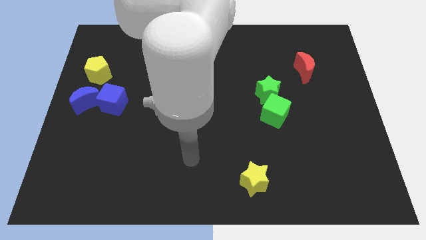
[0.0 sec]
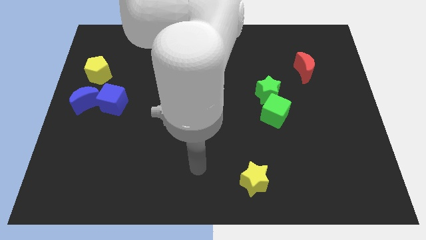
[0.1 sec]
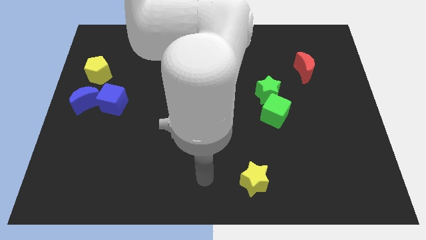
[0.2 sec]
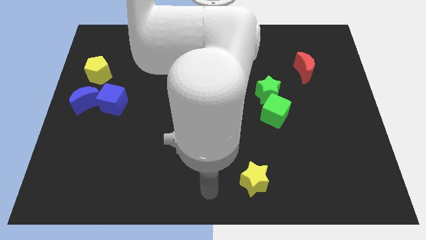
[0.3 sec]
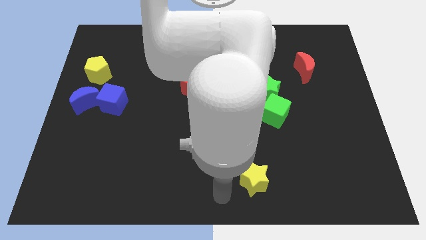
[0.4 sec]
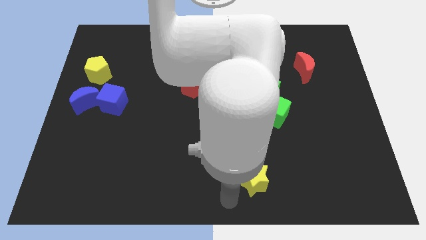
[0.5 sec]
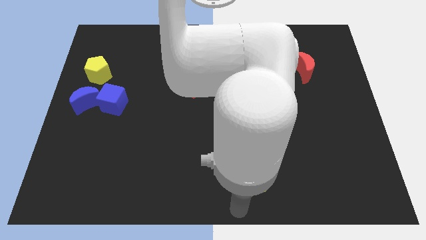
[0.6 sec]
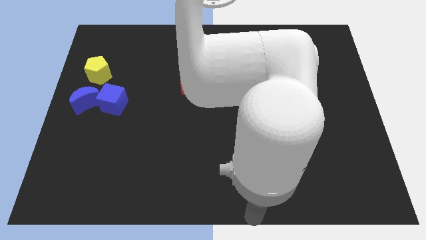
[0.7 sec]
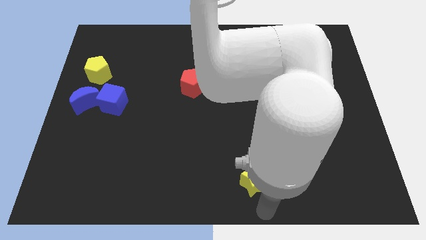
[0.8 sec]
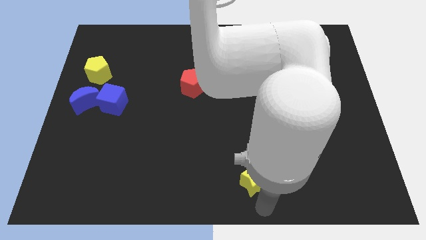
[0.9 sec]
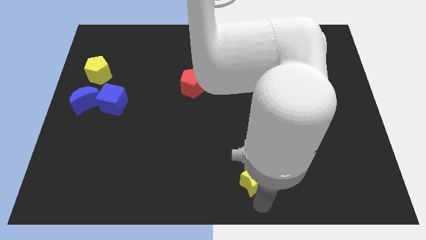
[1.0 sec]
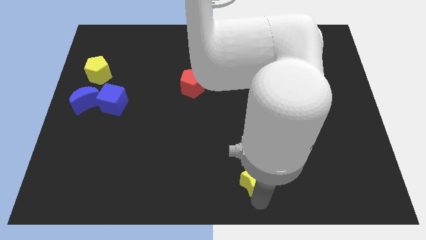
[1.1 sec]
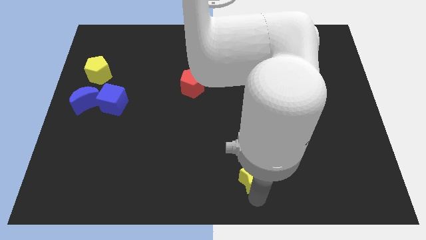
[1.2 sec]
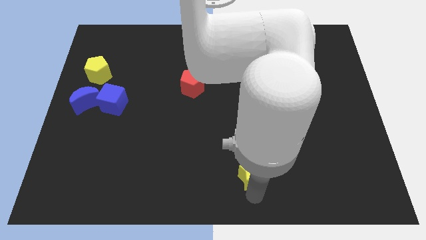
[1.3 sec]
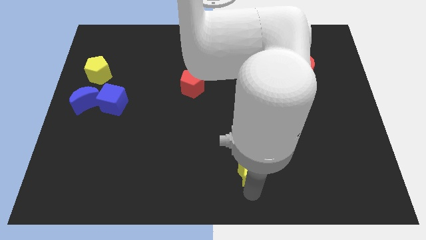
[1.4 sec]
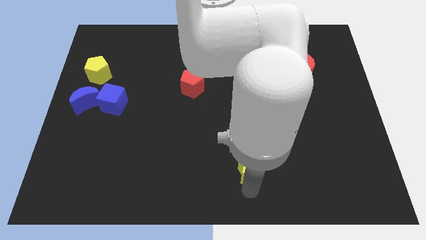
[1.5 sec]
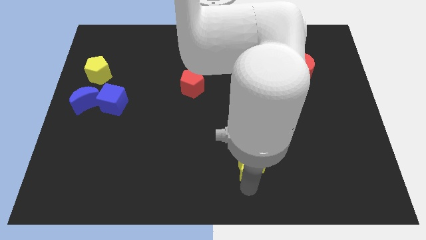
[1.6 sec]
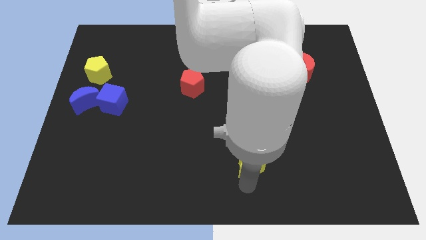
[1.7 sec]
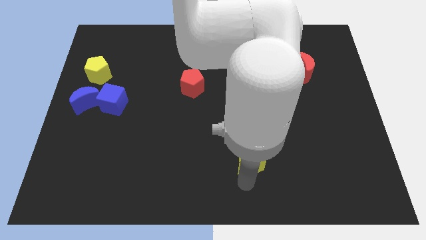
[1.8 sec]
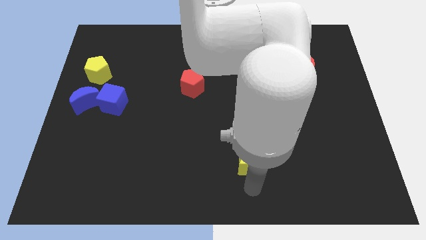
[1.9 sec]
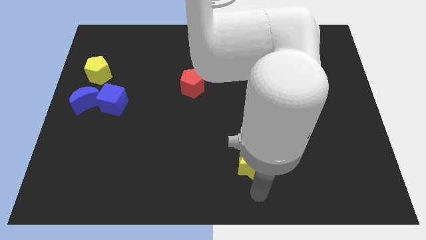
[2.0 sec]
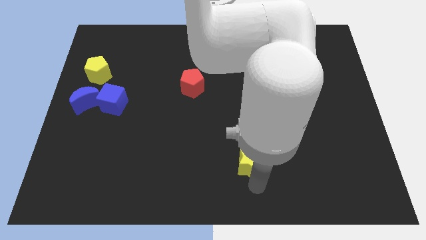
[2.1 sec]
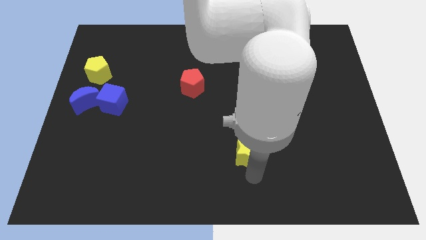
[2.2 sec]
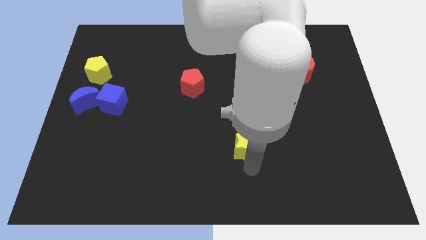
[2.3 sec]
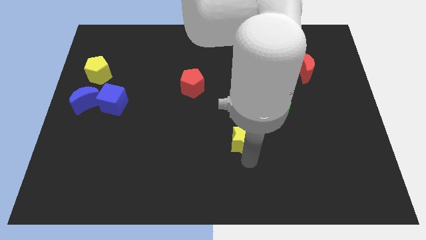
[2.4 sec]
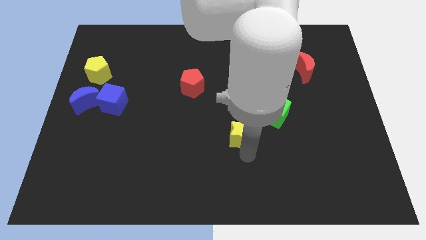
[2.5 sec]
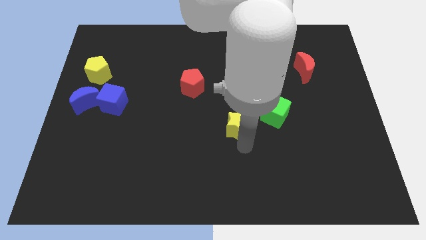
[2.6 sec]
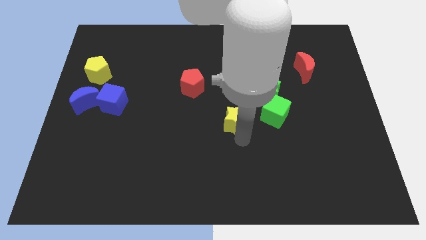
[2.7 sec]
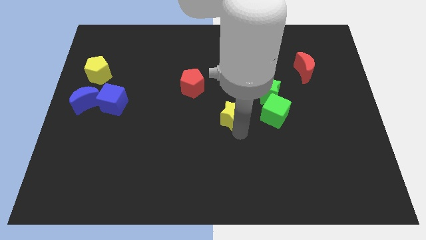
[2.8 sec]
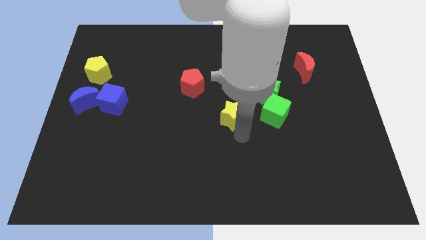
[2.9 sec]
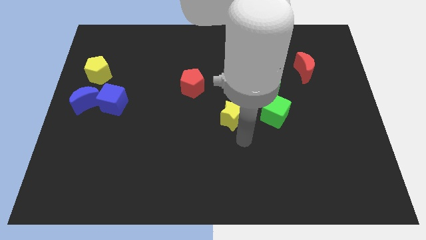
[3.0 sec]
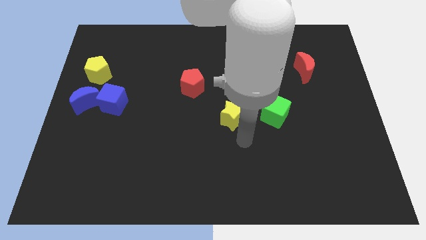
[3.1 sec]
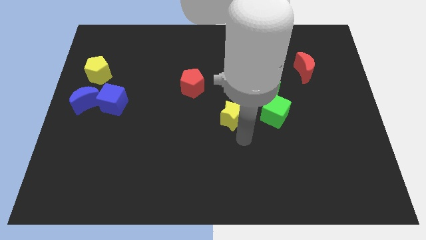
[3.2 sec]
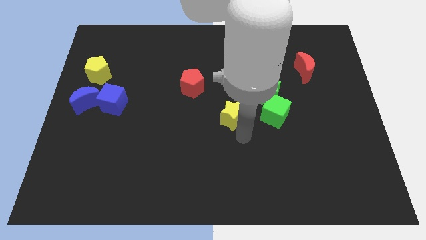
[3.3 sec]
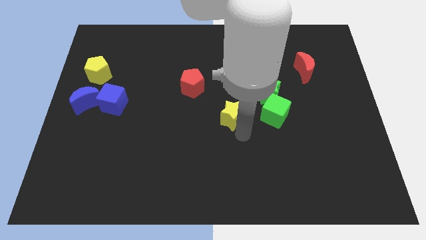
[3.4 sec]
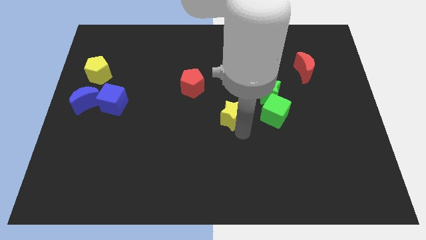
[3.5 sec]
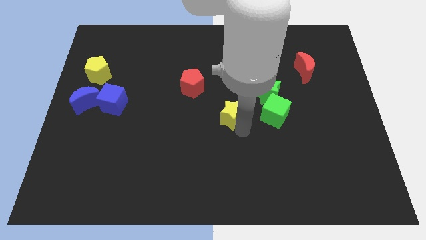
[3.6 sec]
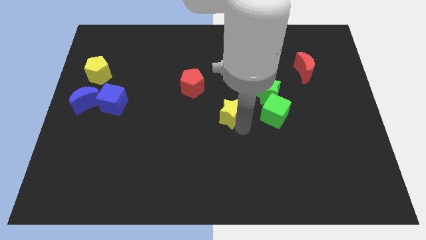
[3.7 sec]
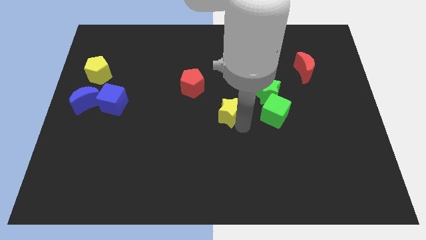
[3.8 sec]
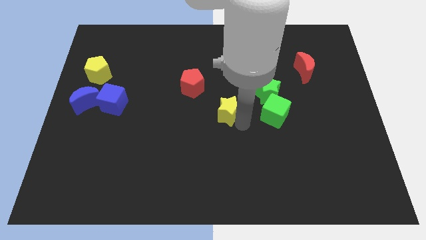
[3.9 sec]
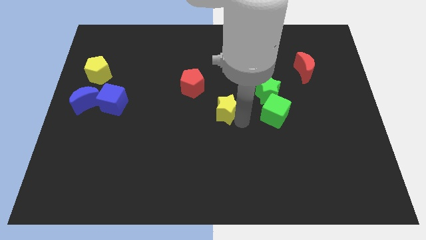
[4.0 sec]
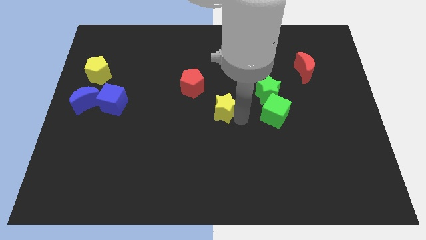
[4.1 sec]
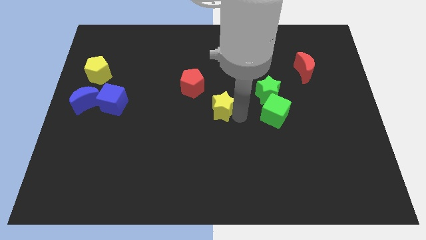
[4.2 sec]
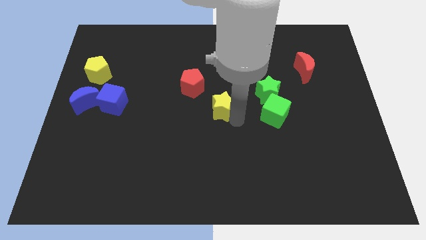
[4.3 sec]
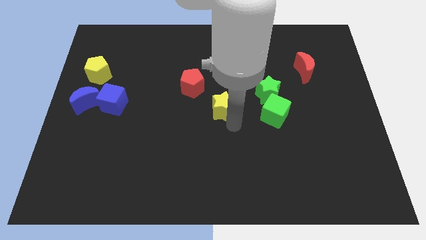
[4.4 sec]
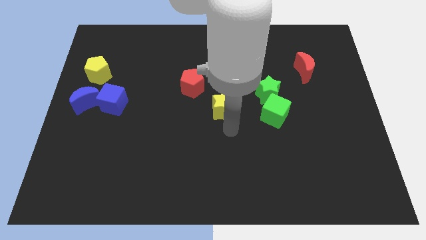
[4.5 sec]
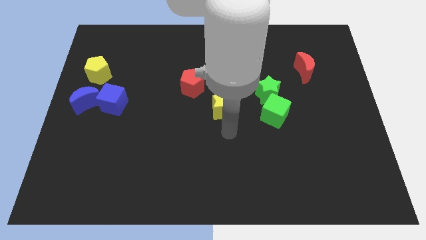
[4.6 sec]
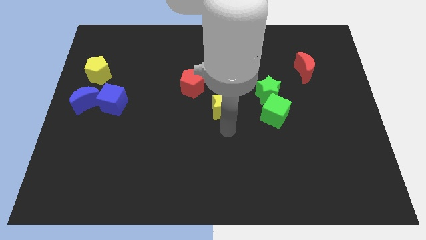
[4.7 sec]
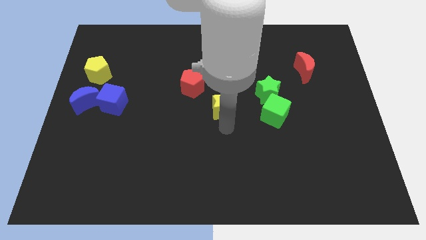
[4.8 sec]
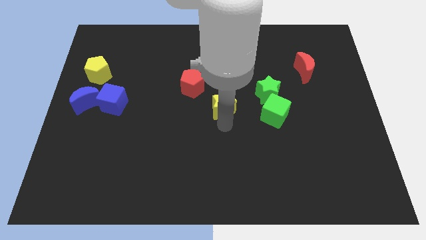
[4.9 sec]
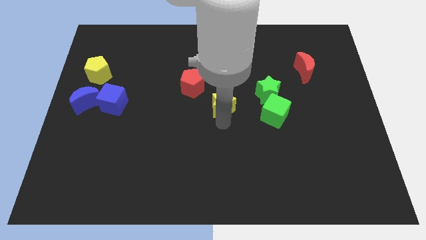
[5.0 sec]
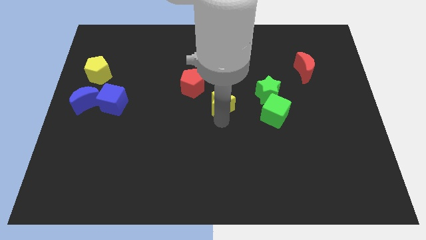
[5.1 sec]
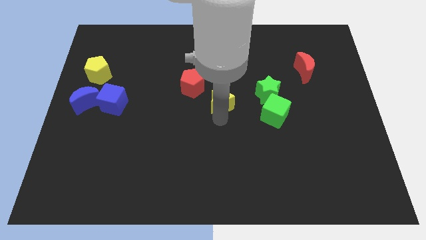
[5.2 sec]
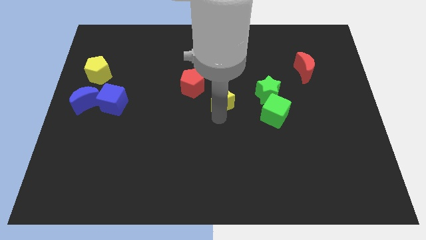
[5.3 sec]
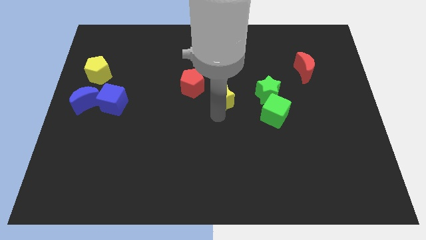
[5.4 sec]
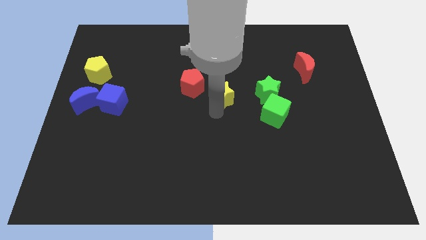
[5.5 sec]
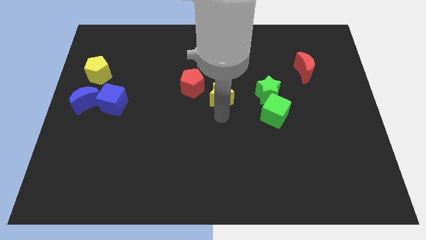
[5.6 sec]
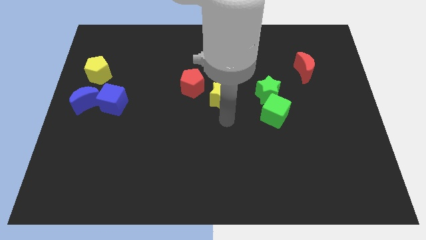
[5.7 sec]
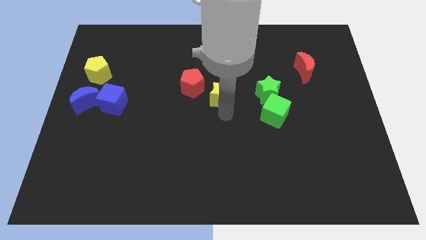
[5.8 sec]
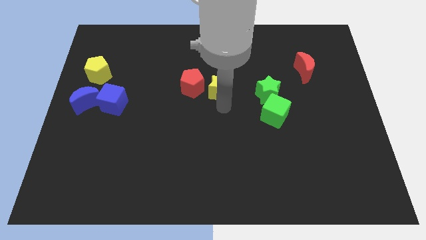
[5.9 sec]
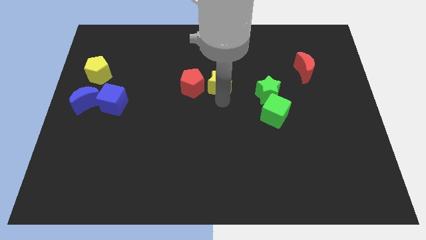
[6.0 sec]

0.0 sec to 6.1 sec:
put the yellow star to the top right of the red pentagon

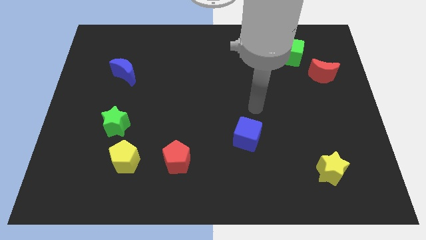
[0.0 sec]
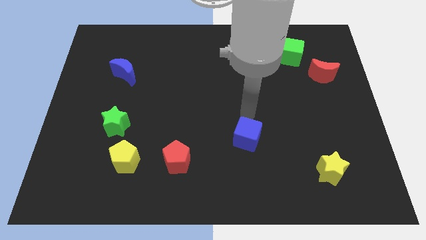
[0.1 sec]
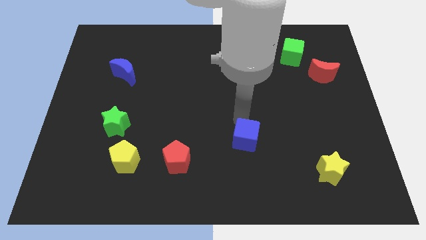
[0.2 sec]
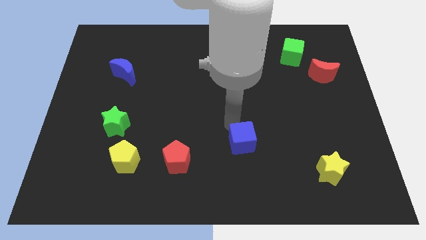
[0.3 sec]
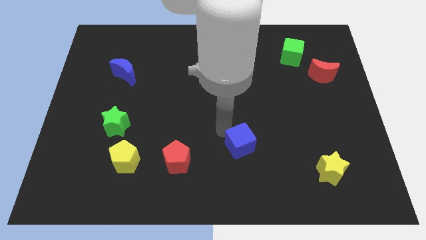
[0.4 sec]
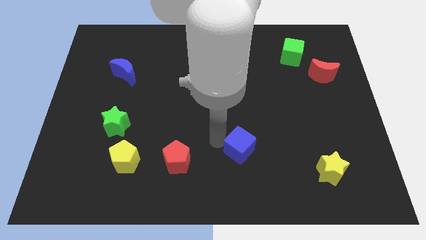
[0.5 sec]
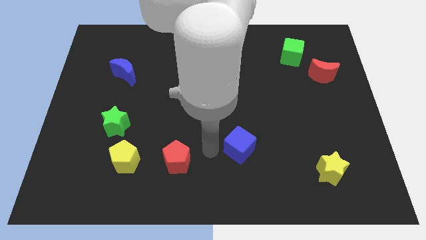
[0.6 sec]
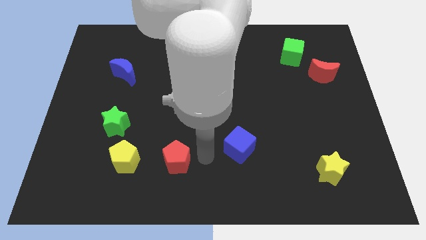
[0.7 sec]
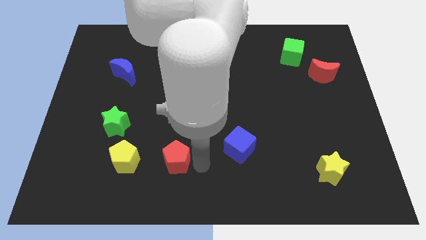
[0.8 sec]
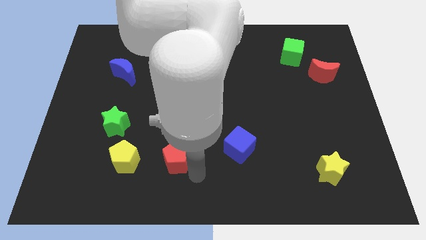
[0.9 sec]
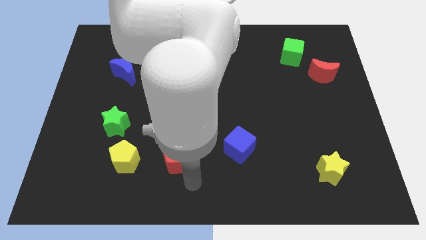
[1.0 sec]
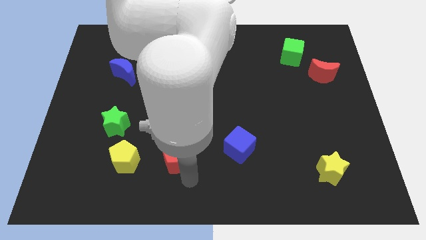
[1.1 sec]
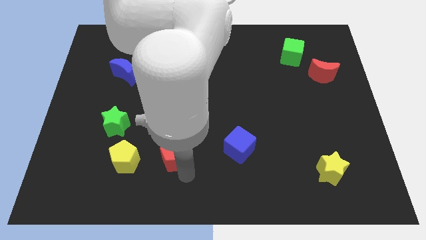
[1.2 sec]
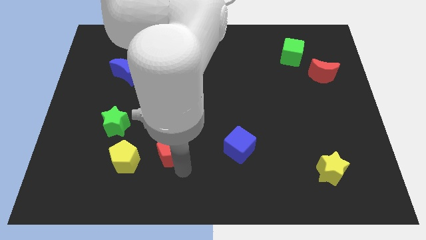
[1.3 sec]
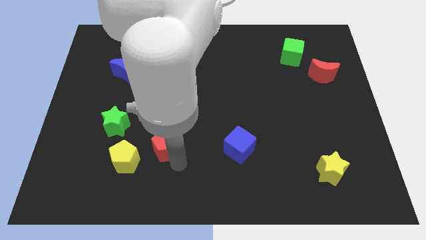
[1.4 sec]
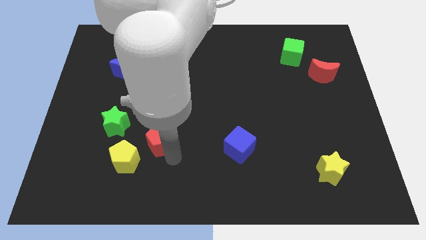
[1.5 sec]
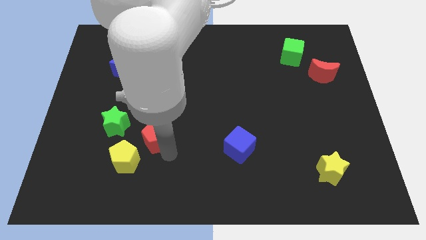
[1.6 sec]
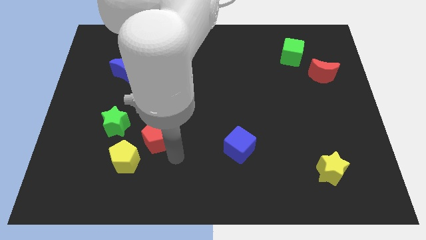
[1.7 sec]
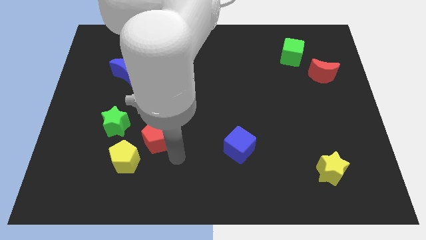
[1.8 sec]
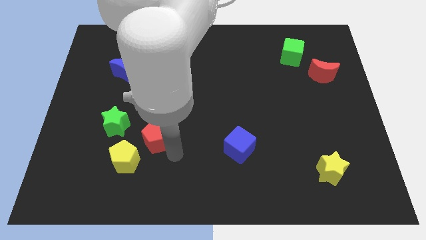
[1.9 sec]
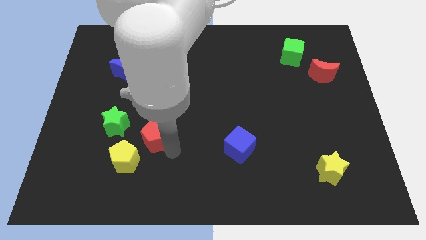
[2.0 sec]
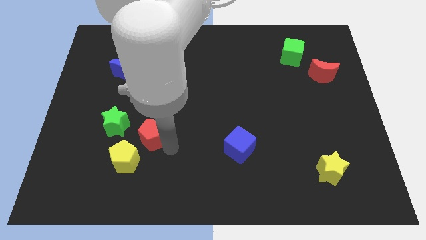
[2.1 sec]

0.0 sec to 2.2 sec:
move the red pentagon above the yellow pentagon
